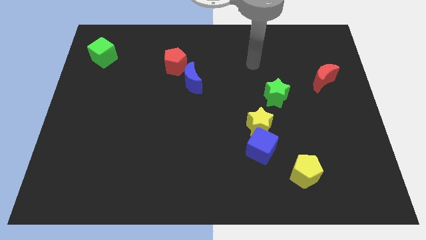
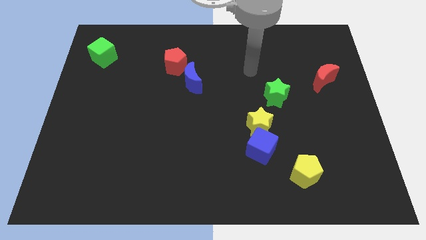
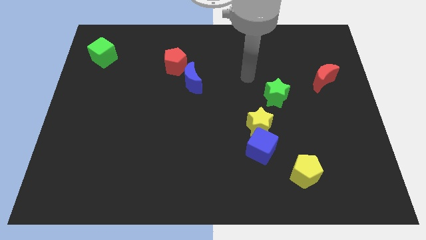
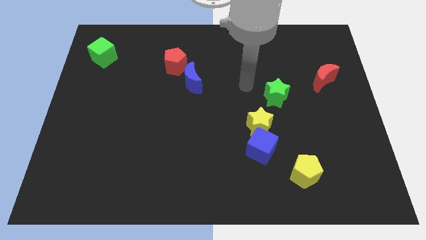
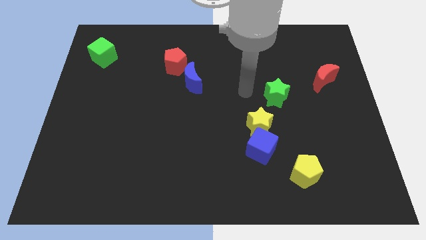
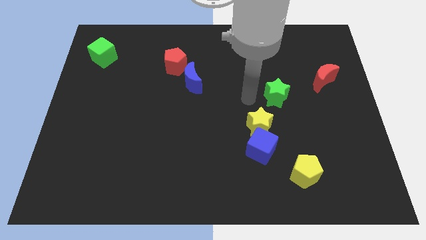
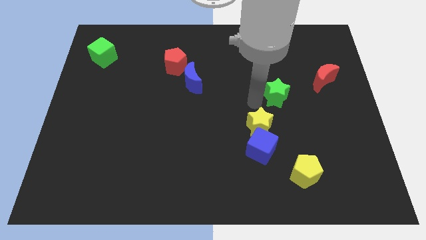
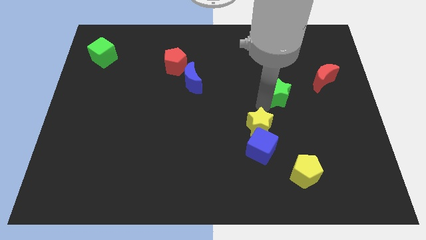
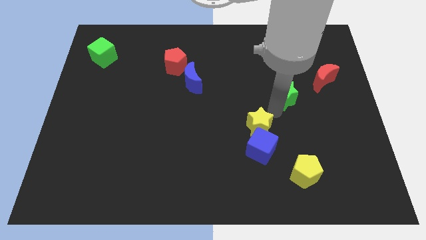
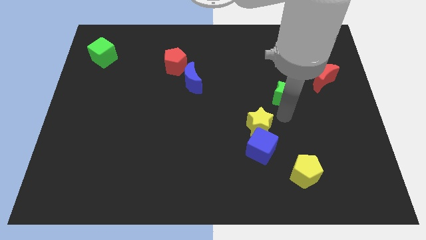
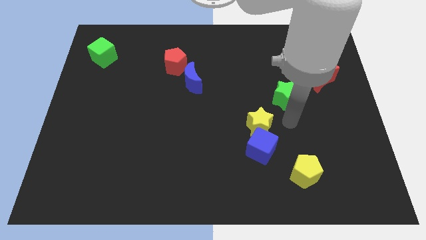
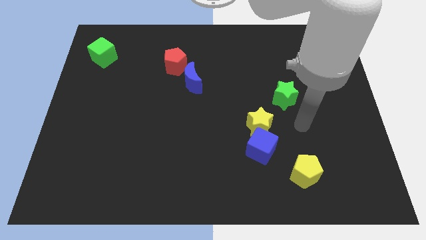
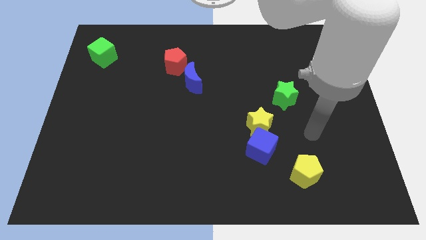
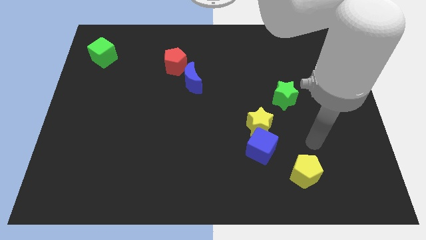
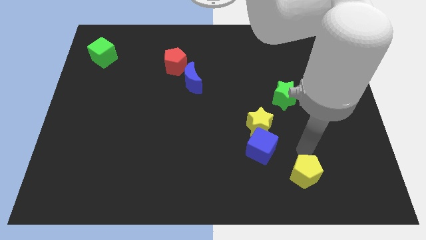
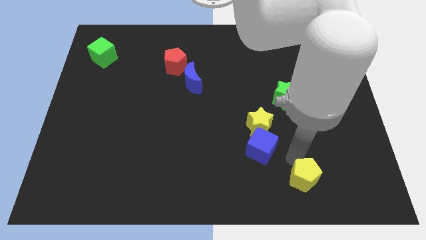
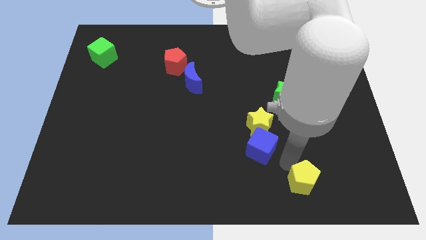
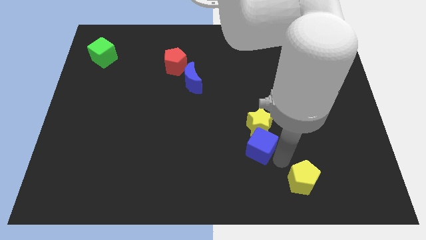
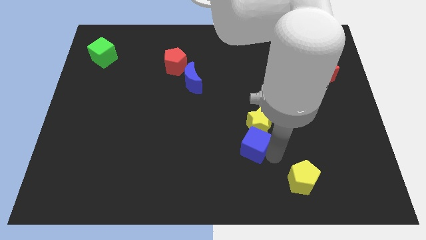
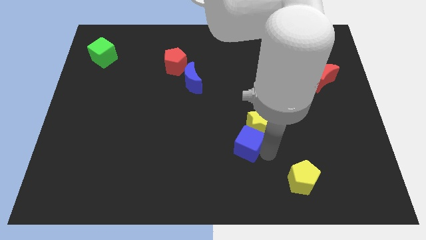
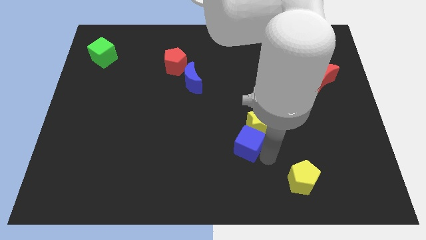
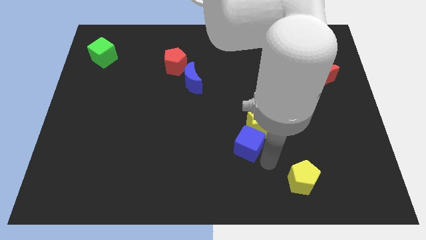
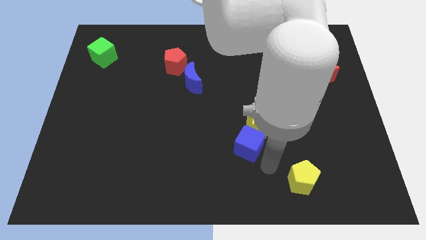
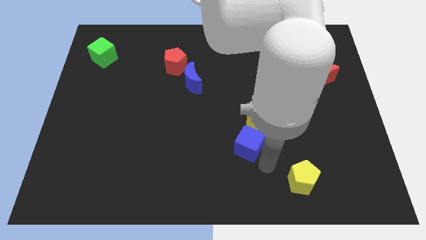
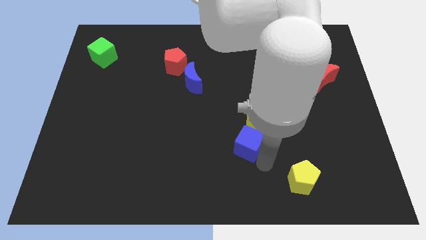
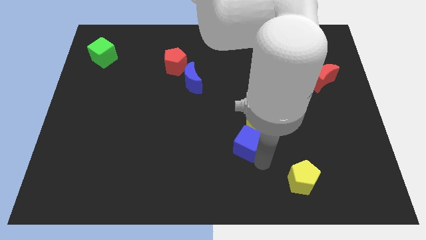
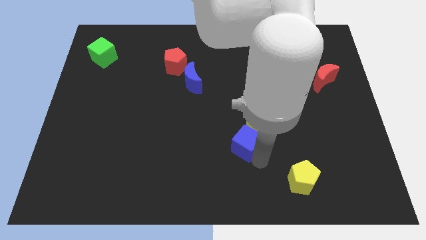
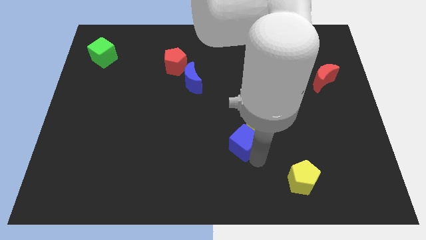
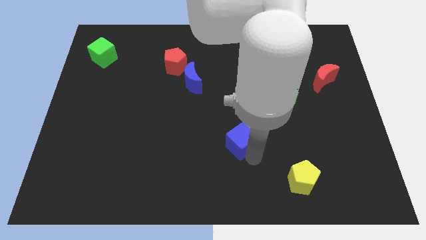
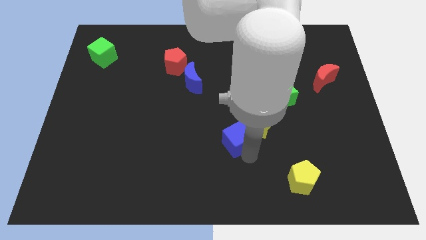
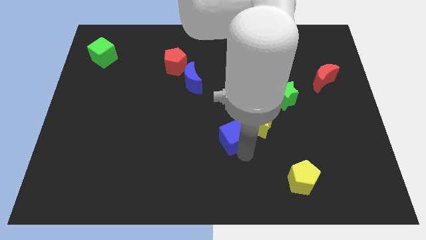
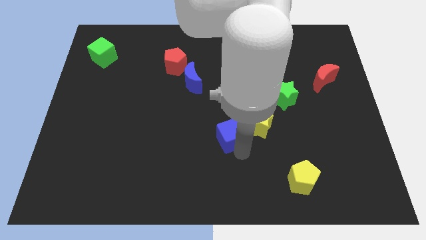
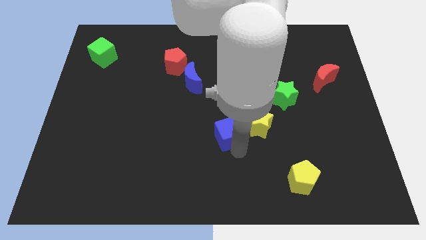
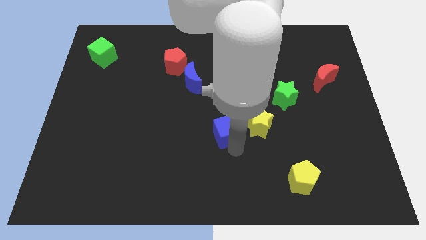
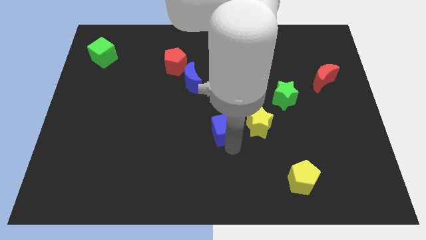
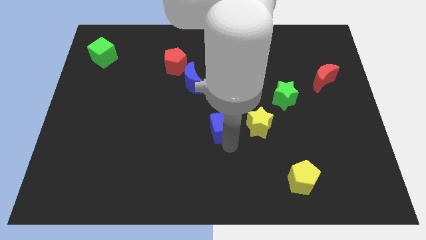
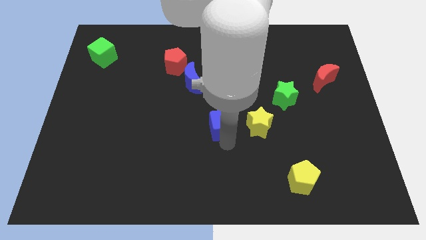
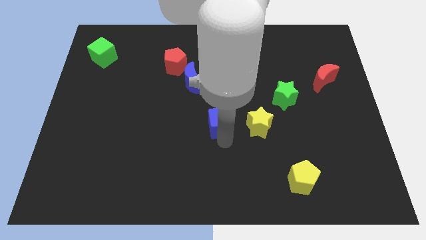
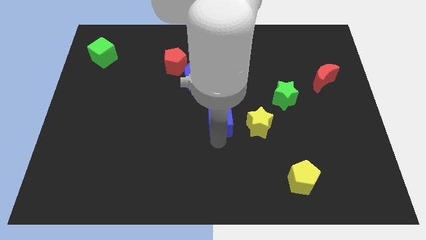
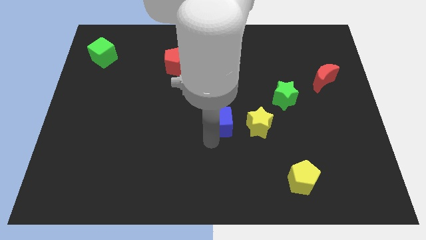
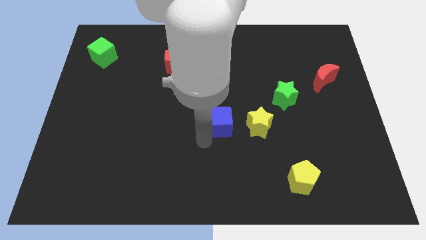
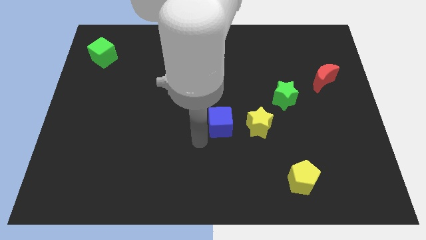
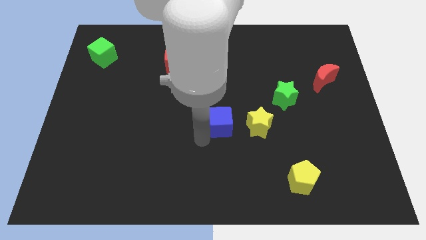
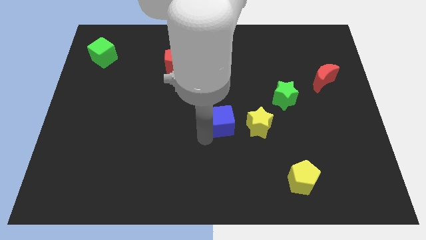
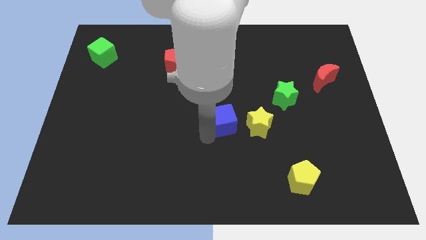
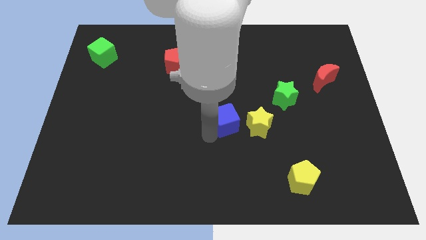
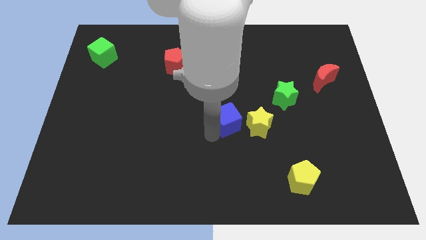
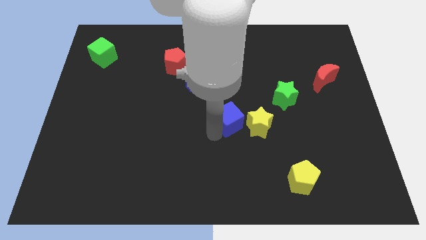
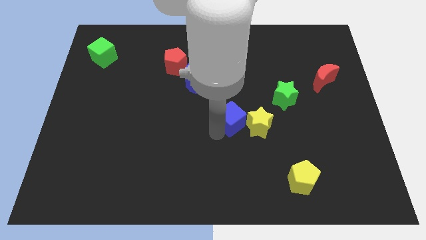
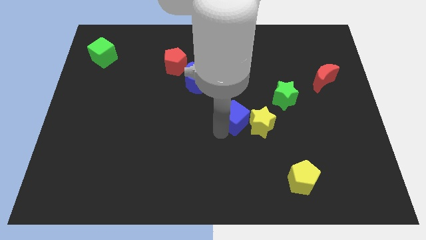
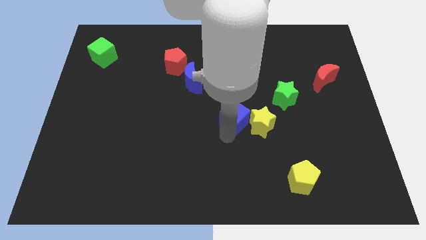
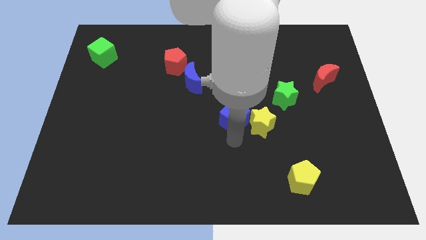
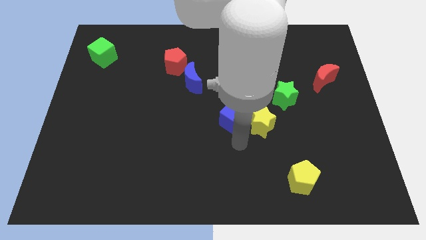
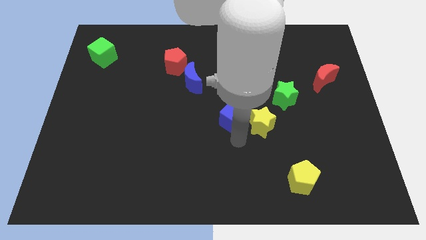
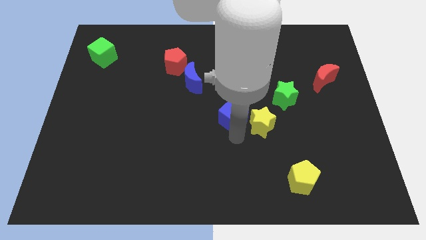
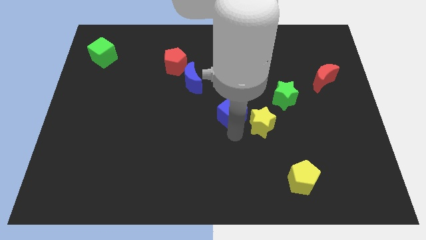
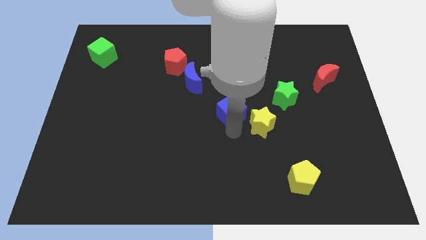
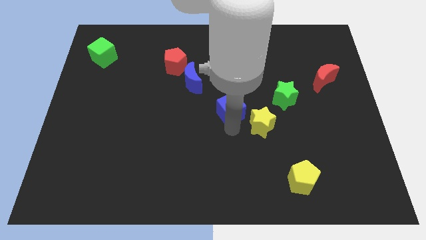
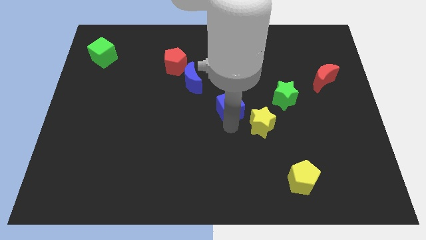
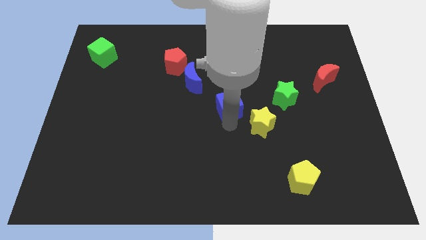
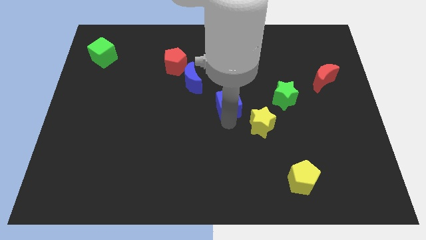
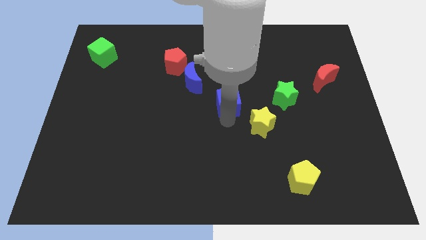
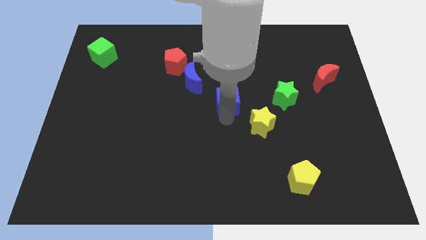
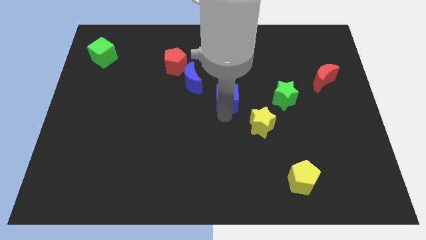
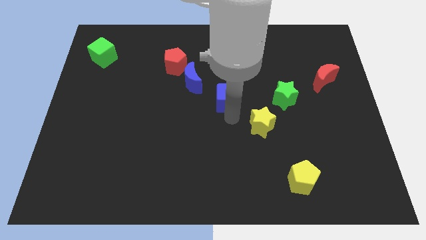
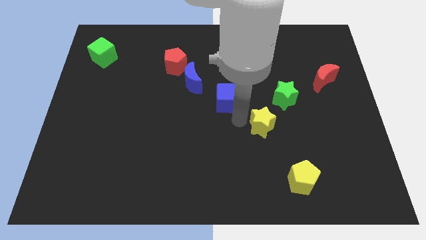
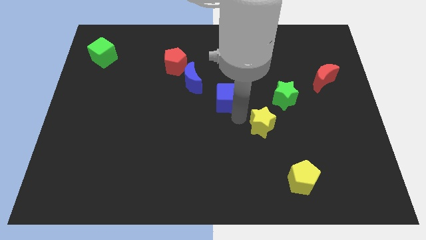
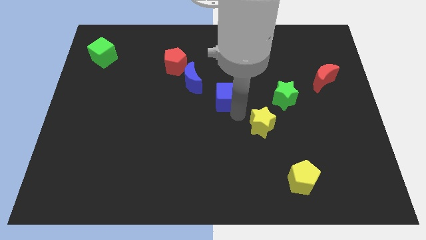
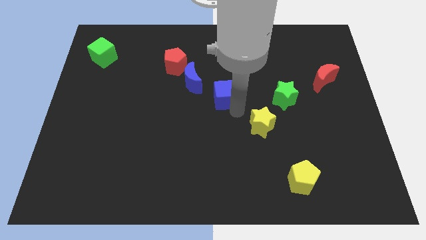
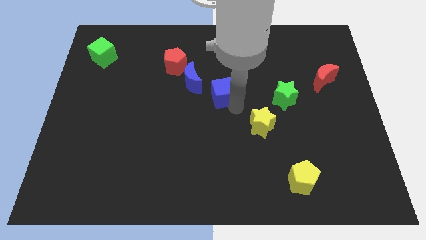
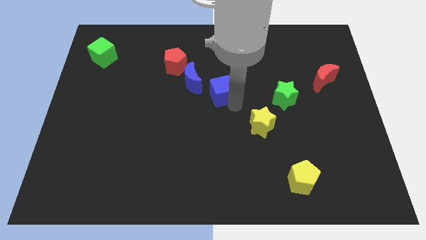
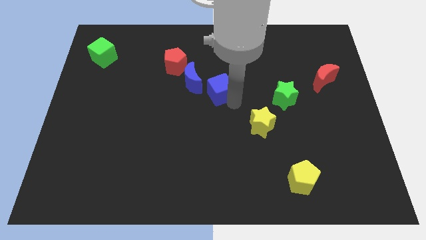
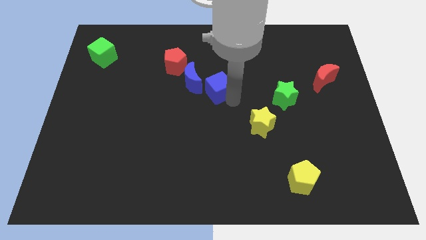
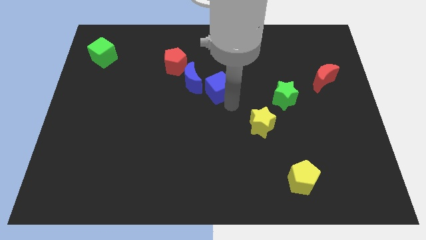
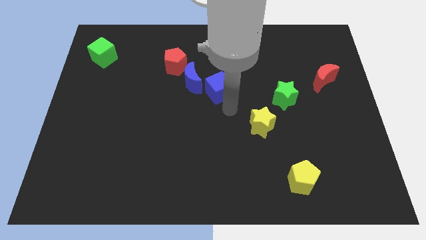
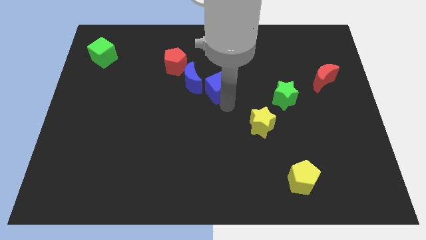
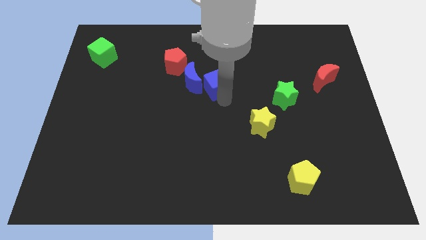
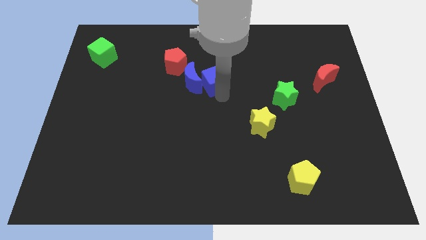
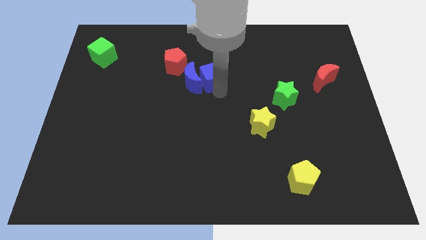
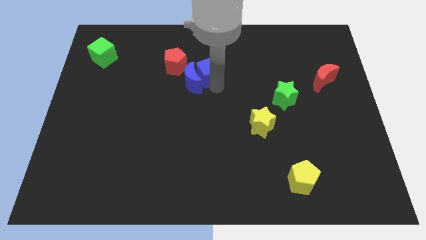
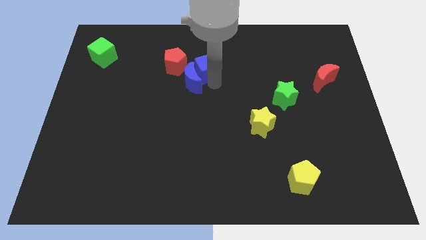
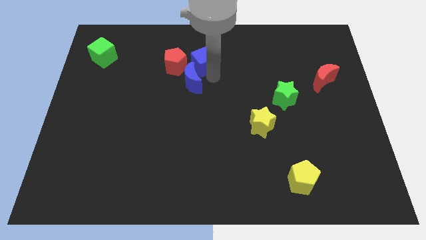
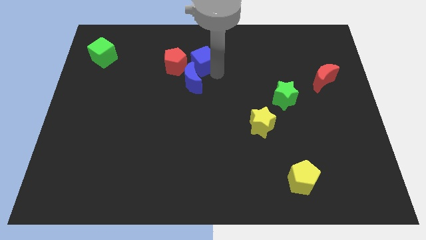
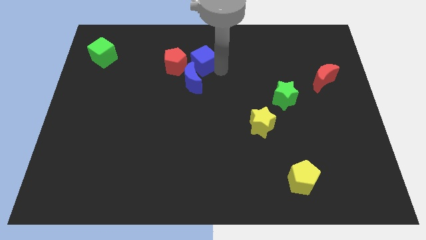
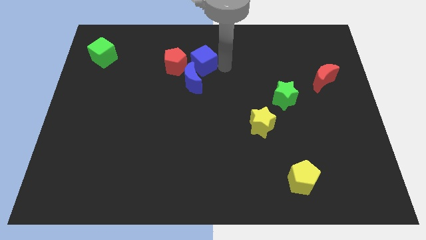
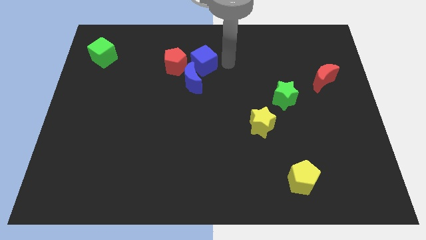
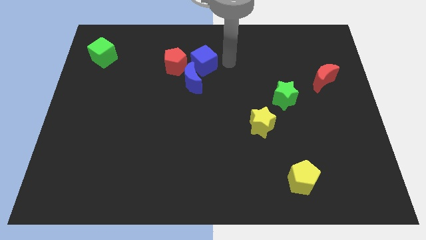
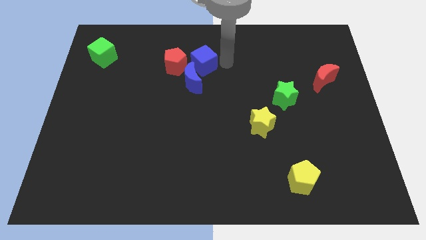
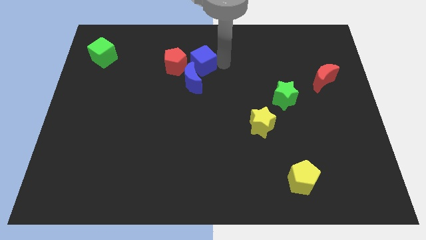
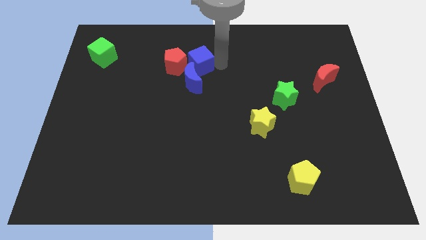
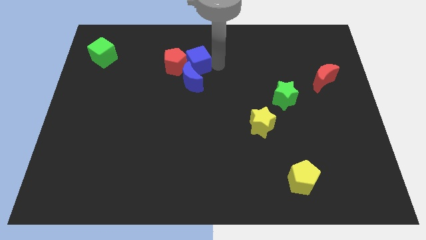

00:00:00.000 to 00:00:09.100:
move the blue cube towards the red pentagon
